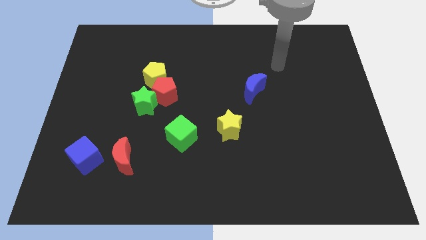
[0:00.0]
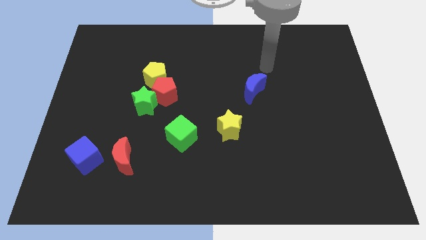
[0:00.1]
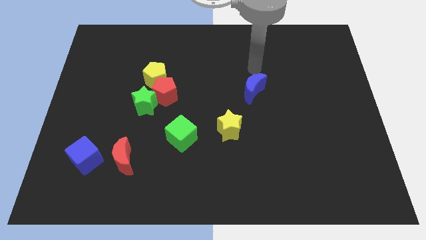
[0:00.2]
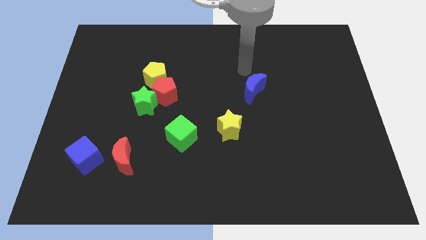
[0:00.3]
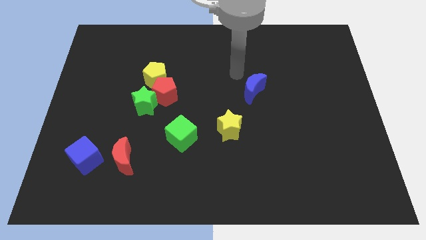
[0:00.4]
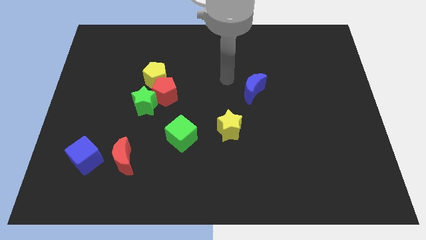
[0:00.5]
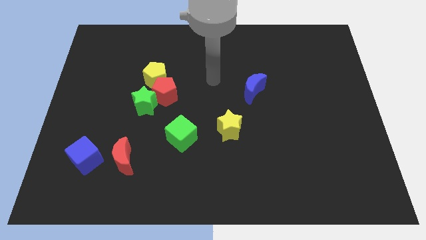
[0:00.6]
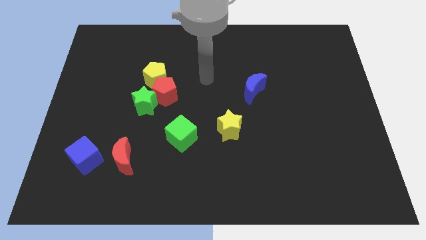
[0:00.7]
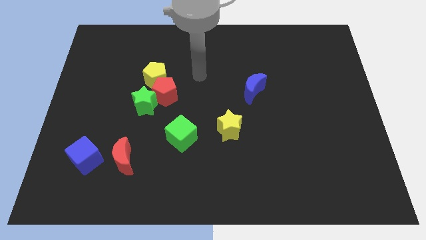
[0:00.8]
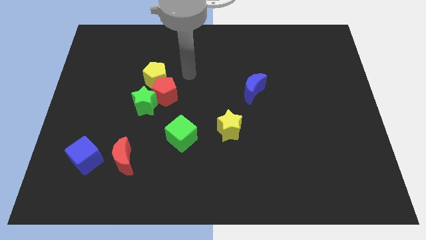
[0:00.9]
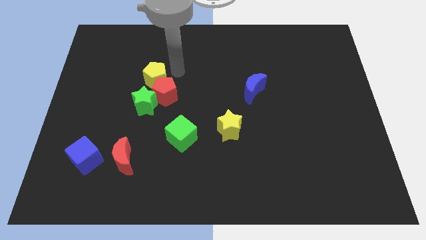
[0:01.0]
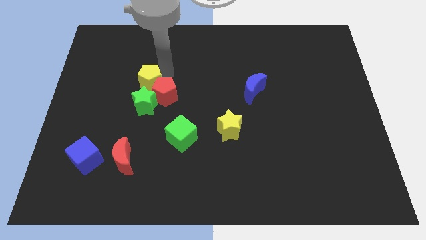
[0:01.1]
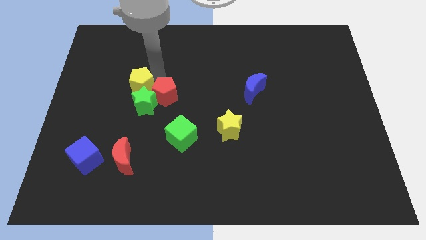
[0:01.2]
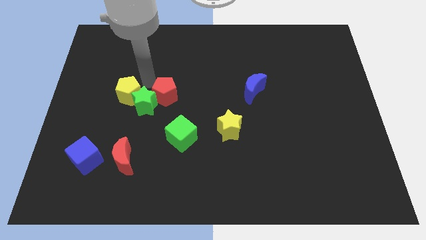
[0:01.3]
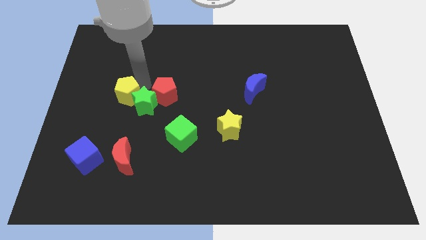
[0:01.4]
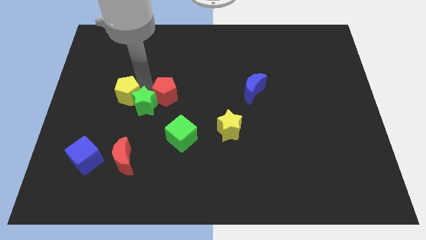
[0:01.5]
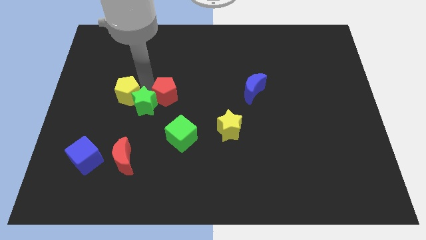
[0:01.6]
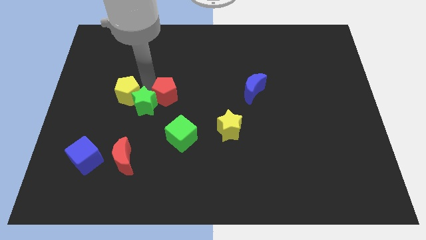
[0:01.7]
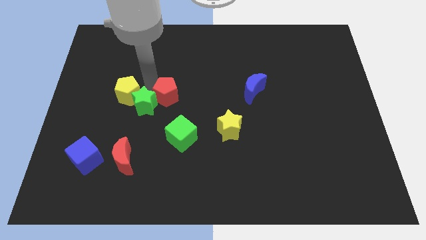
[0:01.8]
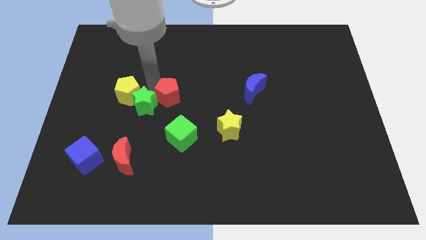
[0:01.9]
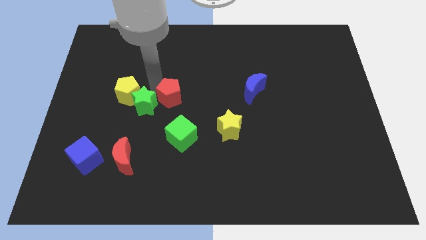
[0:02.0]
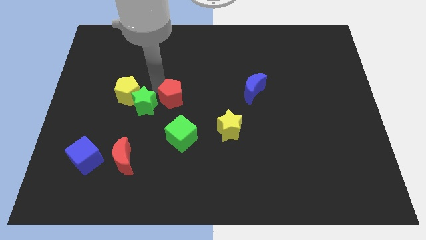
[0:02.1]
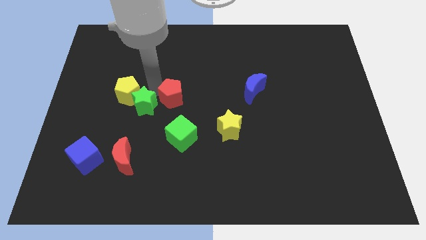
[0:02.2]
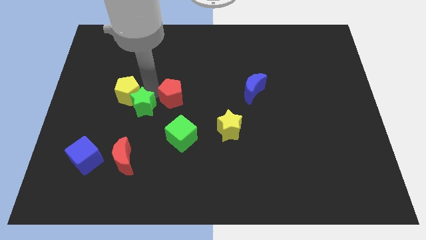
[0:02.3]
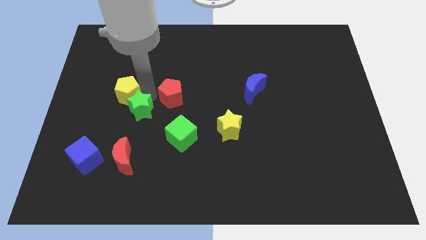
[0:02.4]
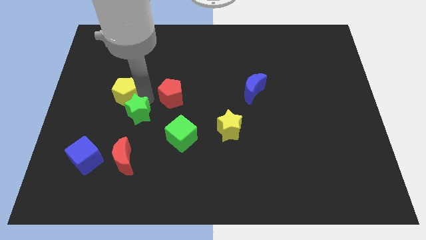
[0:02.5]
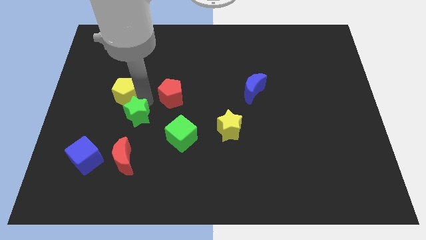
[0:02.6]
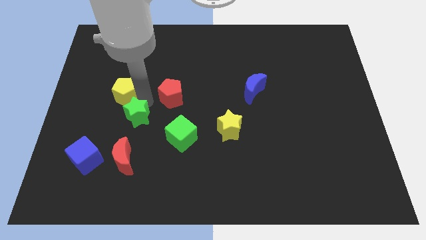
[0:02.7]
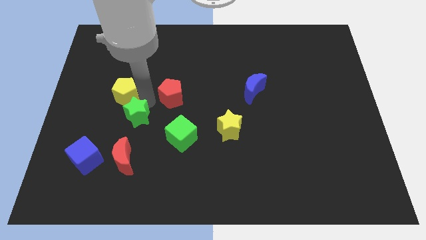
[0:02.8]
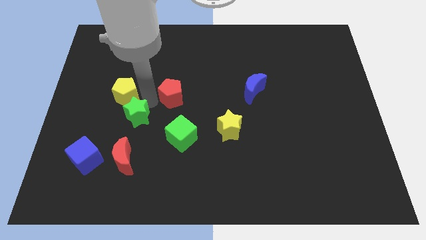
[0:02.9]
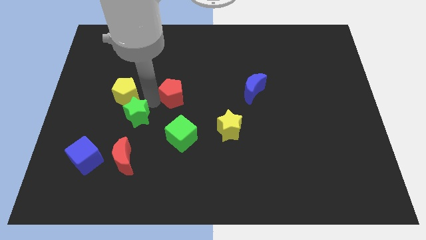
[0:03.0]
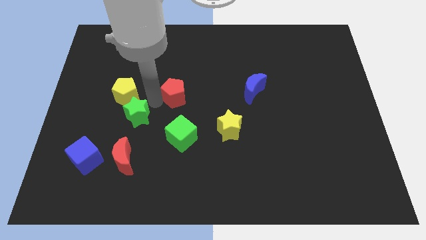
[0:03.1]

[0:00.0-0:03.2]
move the red pentagon away from the green star and yellow pentagon

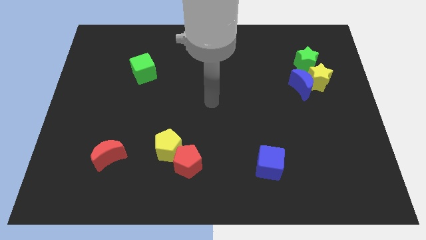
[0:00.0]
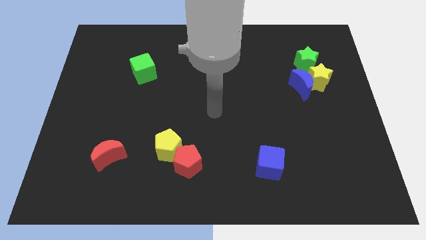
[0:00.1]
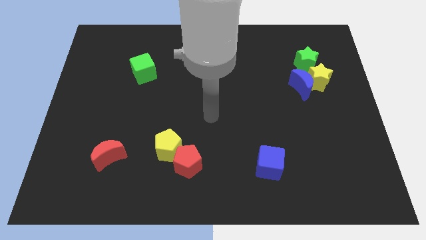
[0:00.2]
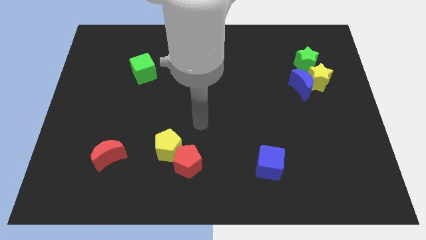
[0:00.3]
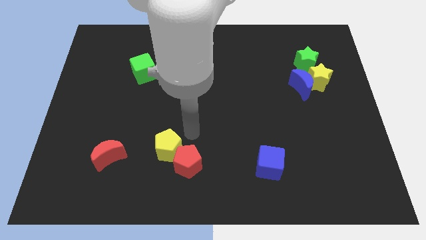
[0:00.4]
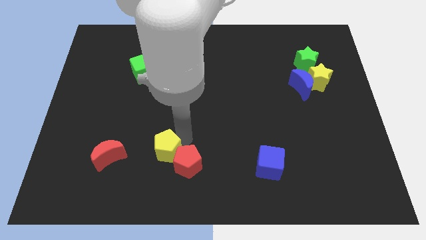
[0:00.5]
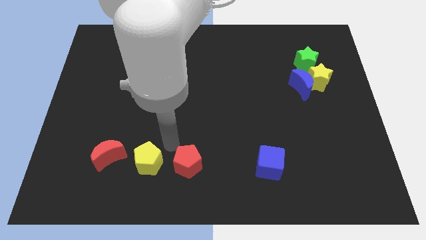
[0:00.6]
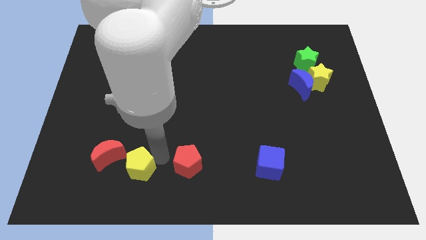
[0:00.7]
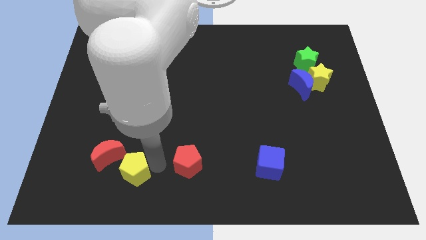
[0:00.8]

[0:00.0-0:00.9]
move the red pentagon away from the yellow pentagon

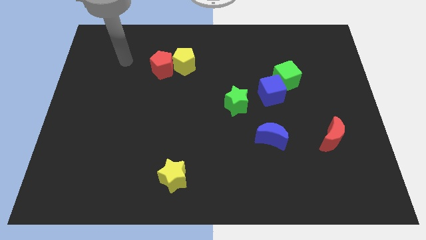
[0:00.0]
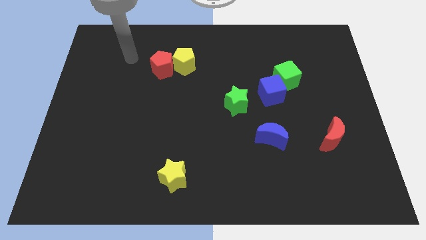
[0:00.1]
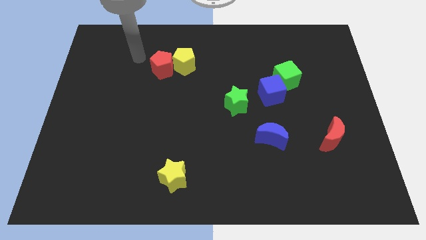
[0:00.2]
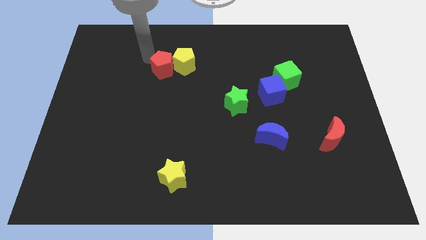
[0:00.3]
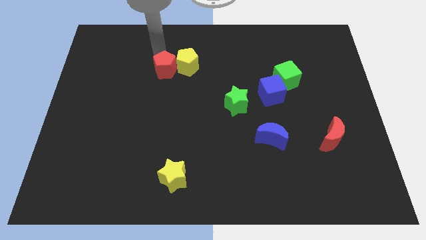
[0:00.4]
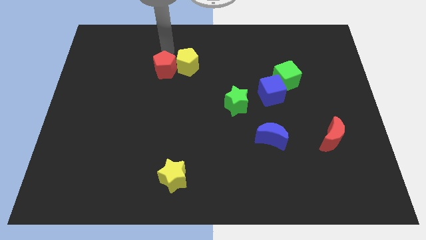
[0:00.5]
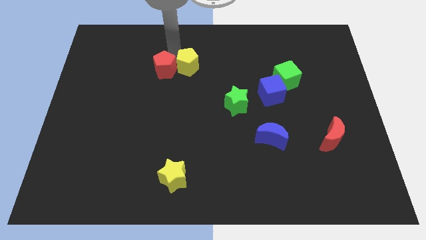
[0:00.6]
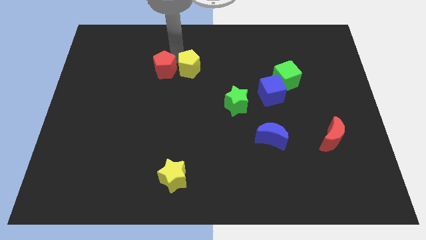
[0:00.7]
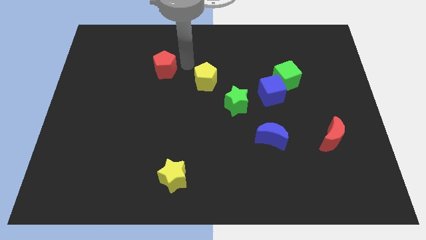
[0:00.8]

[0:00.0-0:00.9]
separate the red pentagon from the yellow pentagon

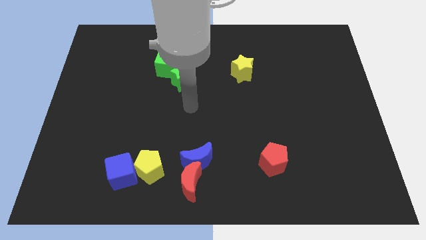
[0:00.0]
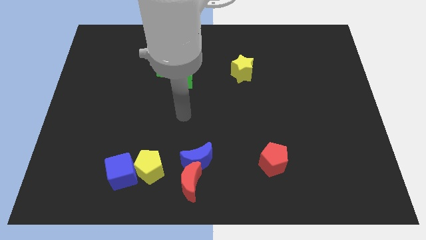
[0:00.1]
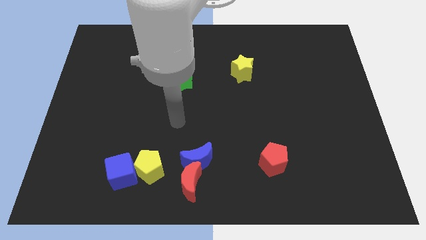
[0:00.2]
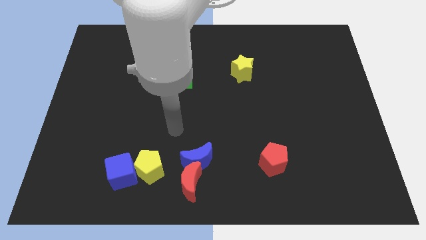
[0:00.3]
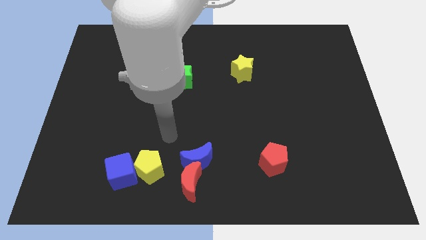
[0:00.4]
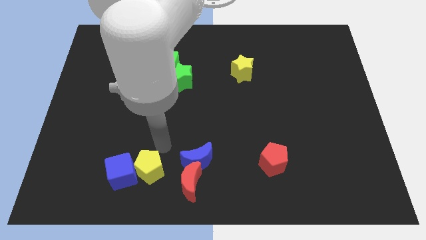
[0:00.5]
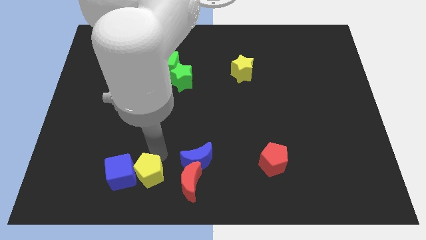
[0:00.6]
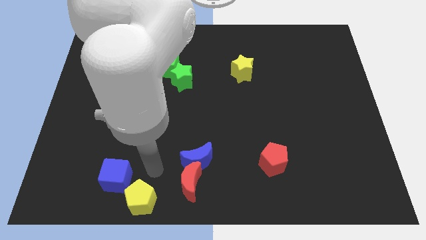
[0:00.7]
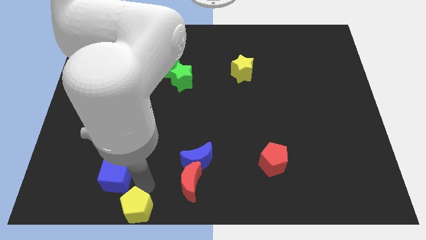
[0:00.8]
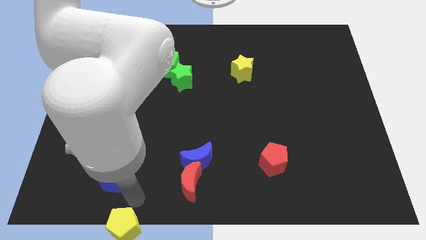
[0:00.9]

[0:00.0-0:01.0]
move the blue cube away from the yellow pentagon

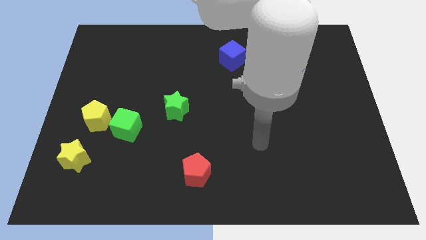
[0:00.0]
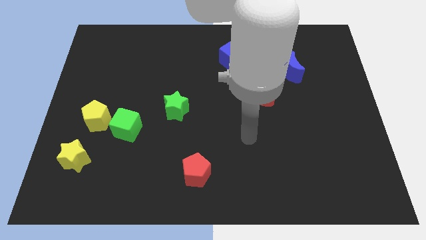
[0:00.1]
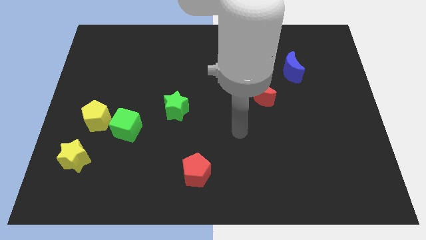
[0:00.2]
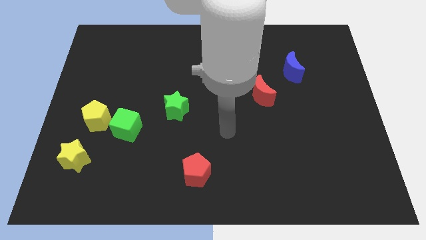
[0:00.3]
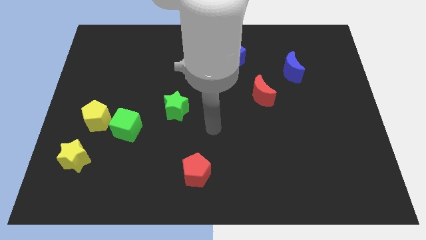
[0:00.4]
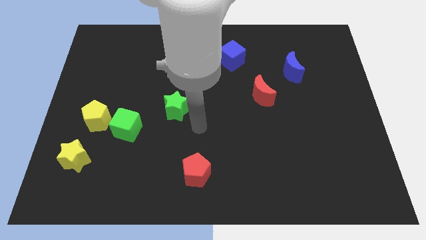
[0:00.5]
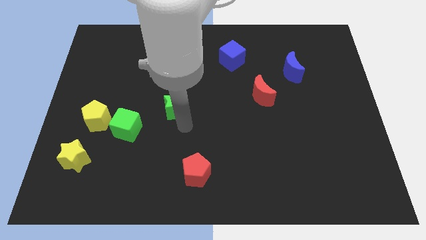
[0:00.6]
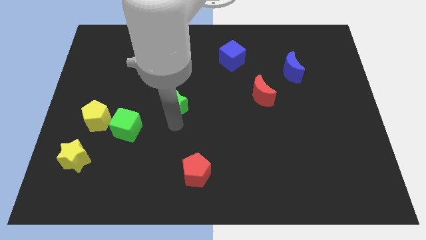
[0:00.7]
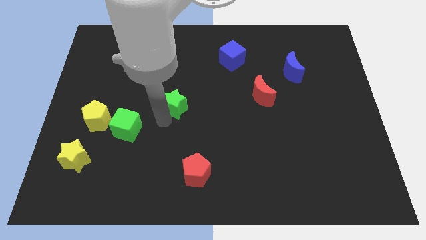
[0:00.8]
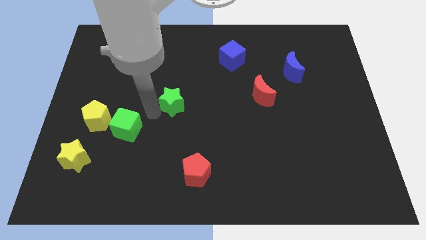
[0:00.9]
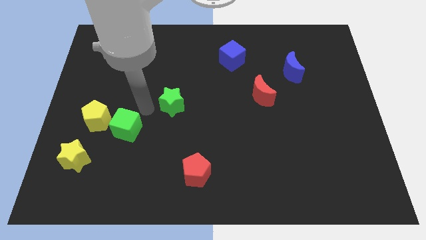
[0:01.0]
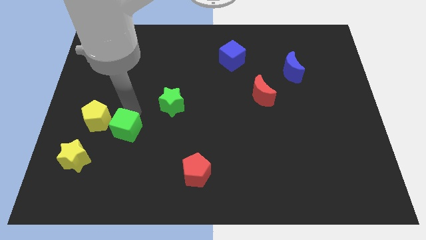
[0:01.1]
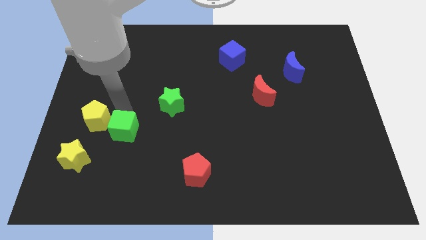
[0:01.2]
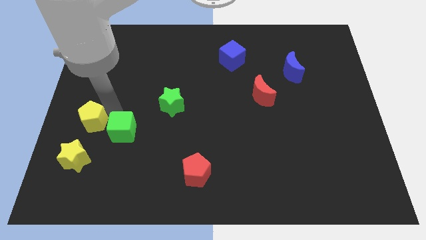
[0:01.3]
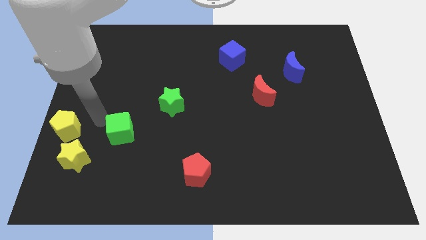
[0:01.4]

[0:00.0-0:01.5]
pull the green cube apart from the yellow pentagon

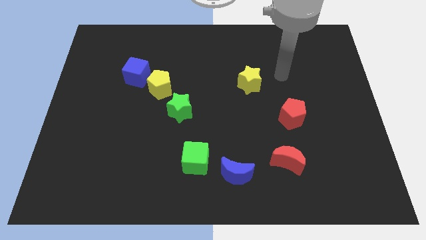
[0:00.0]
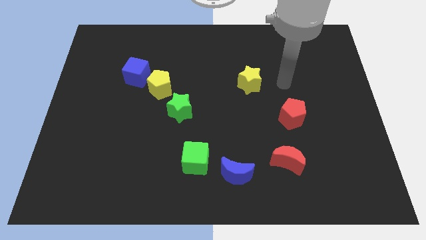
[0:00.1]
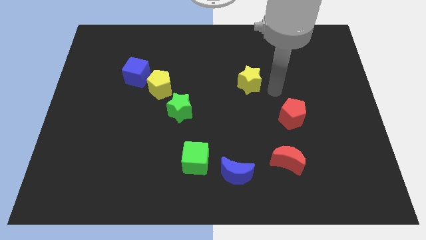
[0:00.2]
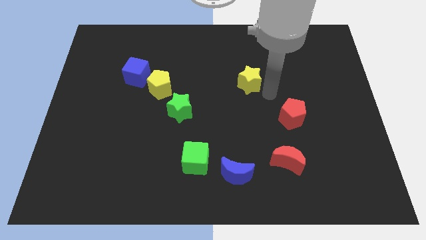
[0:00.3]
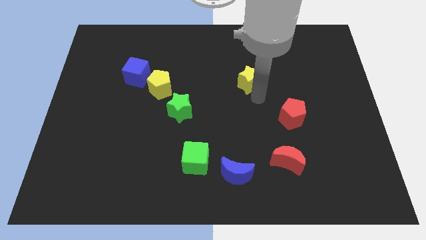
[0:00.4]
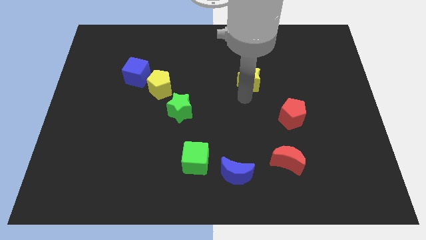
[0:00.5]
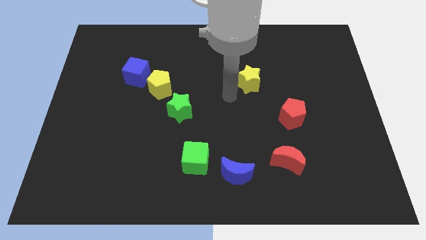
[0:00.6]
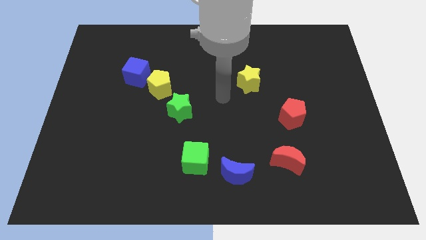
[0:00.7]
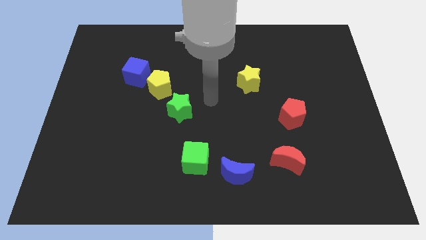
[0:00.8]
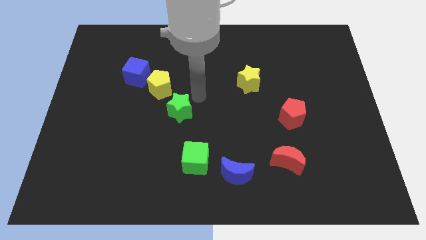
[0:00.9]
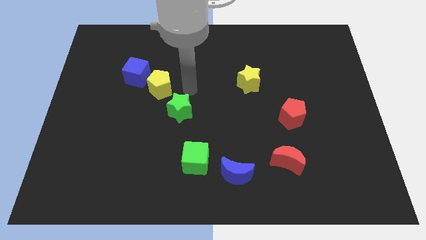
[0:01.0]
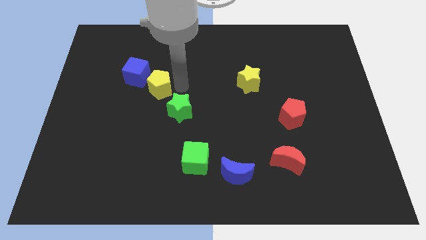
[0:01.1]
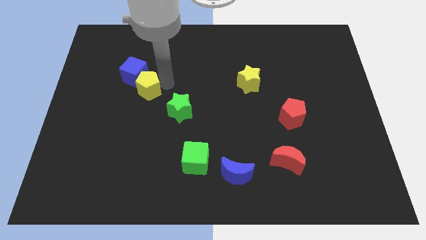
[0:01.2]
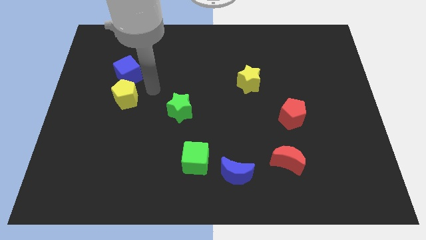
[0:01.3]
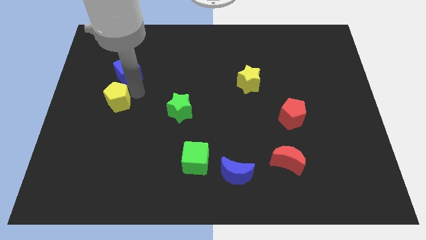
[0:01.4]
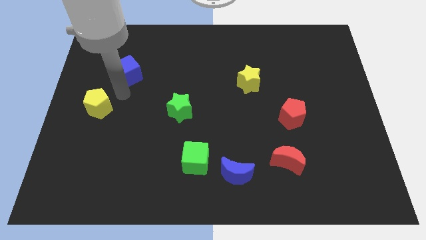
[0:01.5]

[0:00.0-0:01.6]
separate the blue cube from the yellow pentagon
